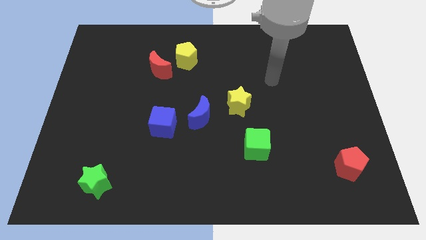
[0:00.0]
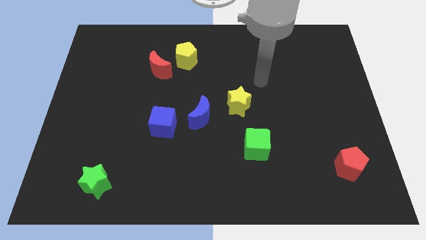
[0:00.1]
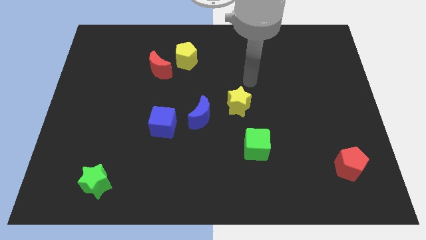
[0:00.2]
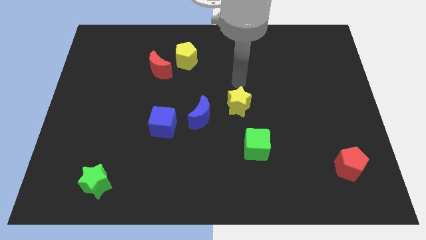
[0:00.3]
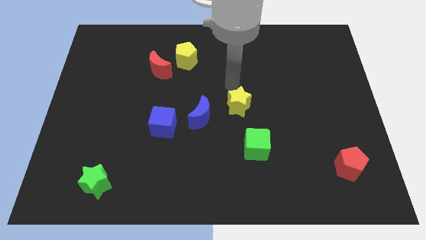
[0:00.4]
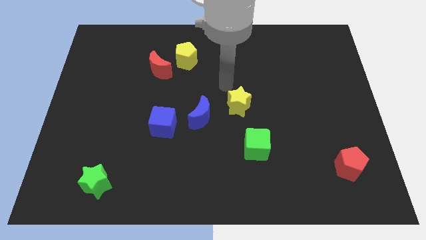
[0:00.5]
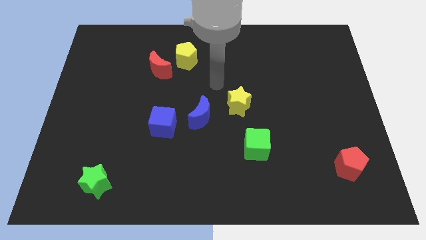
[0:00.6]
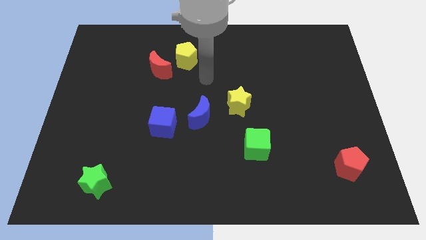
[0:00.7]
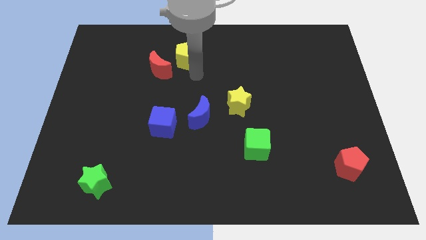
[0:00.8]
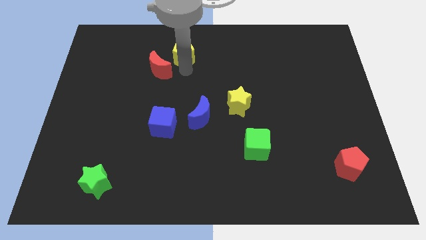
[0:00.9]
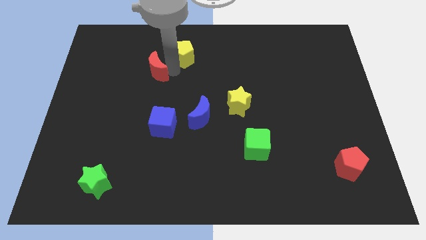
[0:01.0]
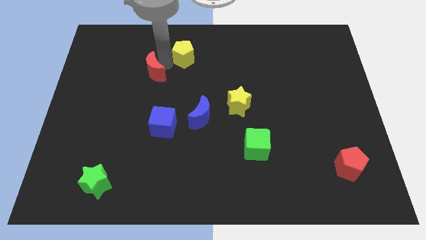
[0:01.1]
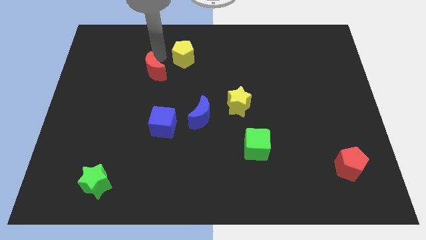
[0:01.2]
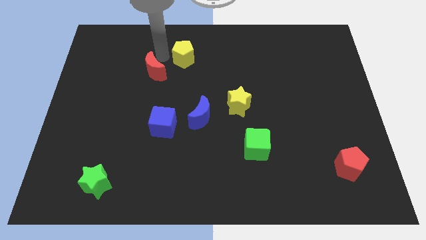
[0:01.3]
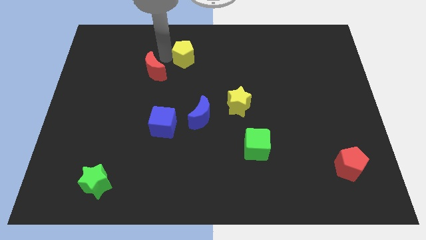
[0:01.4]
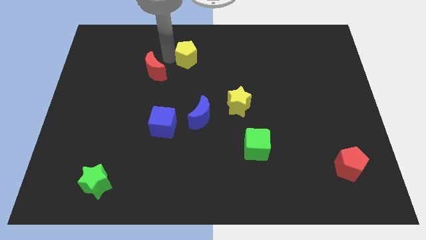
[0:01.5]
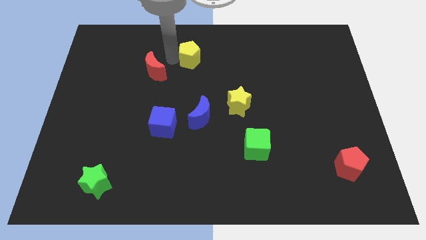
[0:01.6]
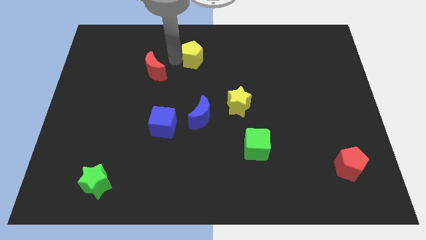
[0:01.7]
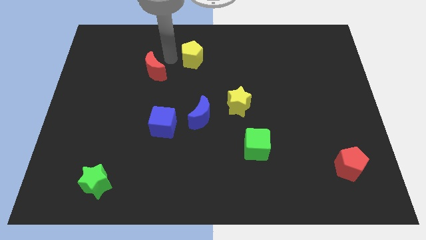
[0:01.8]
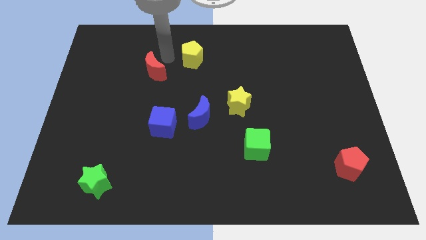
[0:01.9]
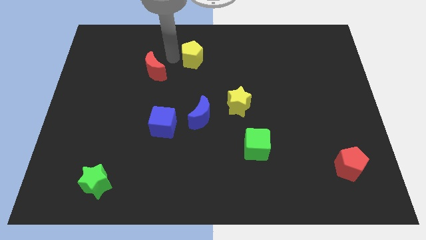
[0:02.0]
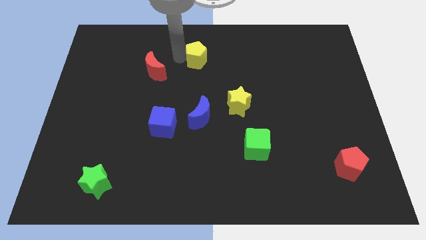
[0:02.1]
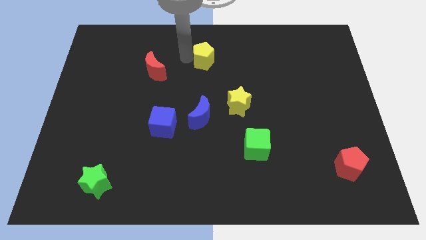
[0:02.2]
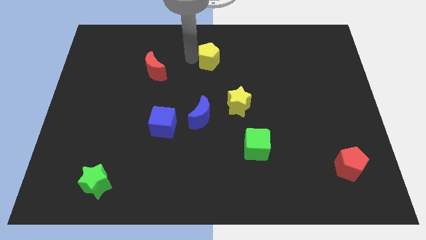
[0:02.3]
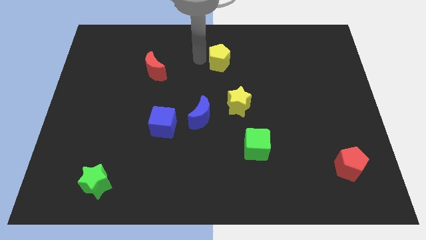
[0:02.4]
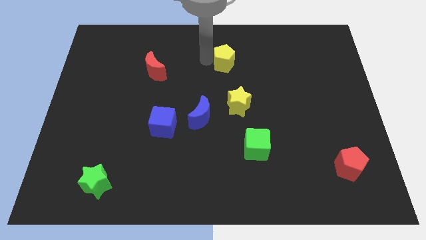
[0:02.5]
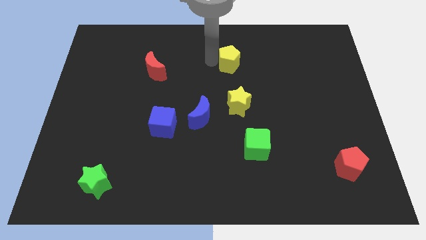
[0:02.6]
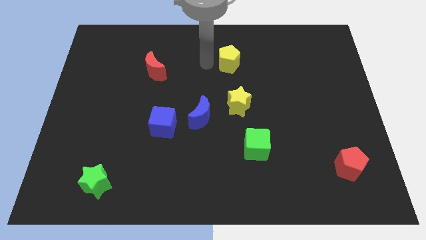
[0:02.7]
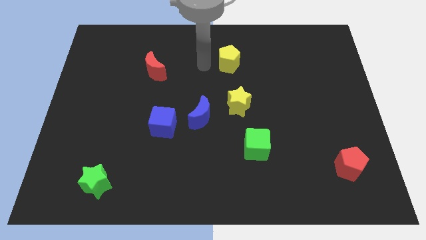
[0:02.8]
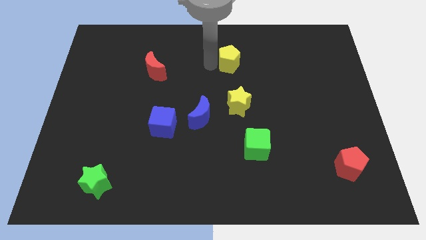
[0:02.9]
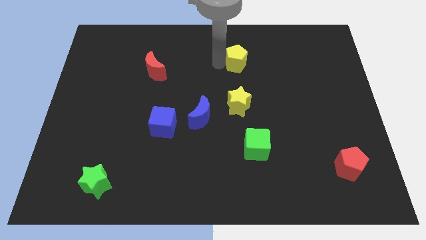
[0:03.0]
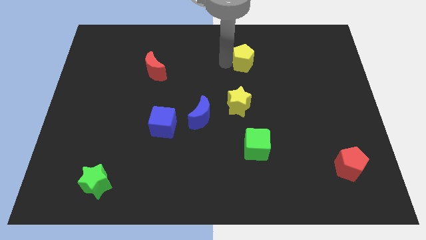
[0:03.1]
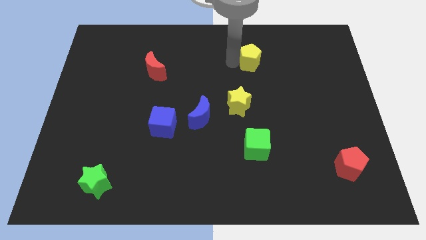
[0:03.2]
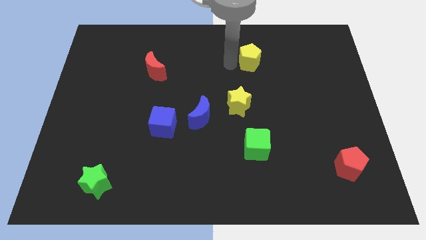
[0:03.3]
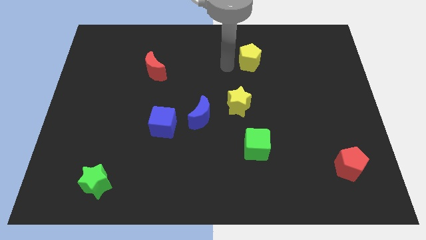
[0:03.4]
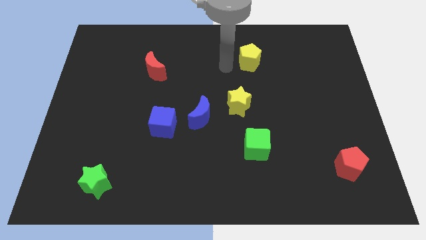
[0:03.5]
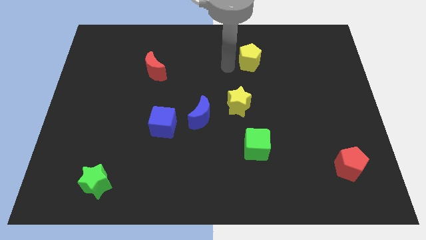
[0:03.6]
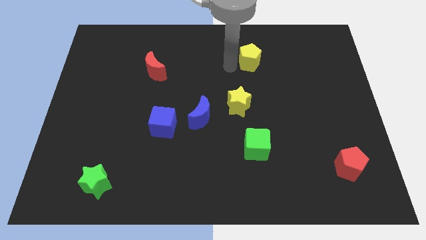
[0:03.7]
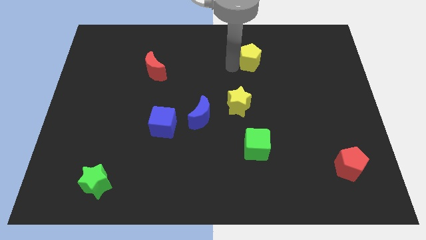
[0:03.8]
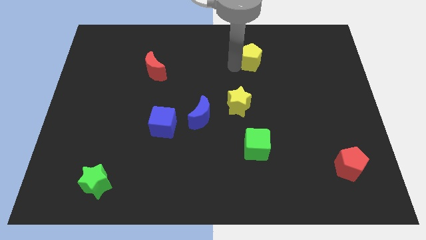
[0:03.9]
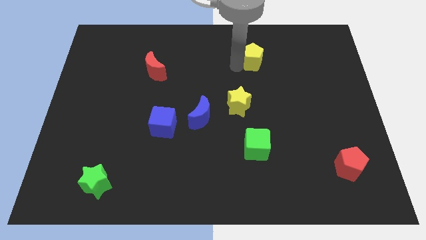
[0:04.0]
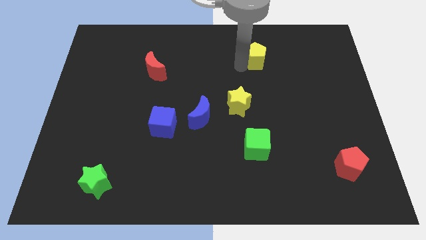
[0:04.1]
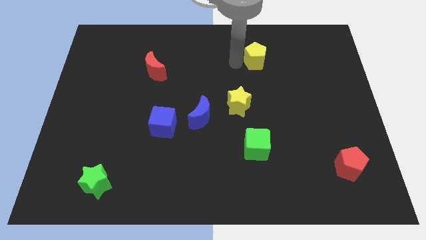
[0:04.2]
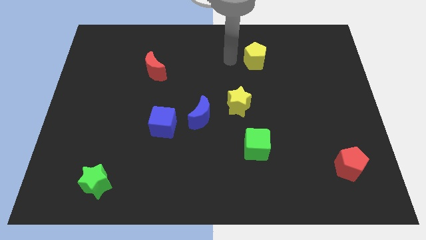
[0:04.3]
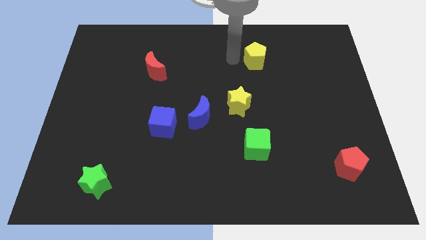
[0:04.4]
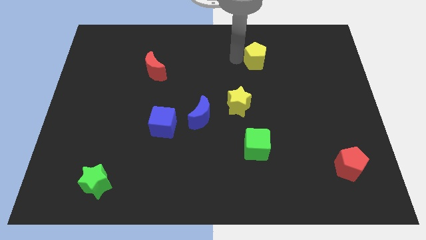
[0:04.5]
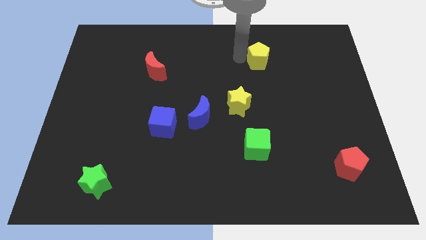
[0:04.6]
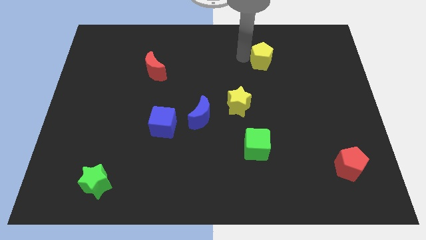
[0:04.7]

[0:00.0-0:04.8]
slide the yellow pentagon right

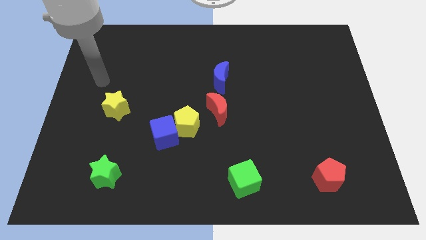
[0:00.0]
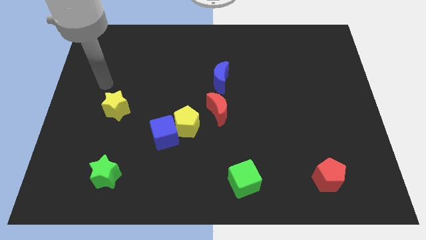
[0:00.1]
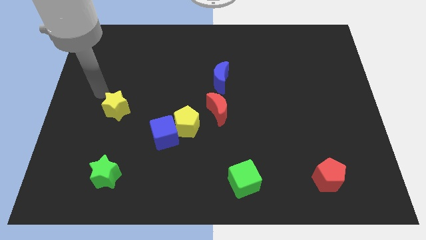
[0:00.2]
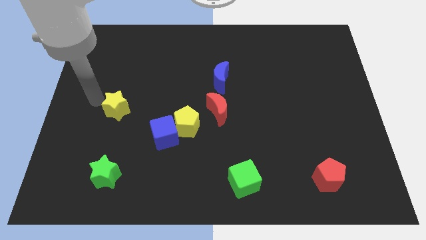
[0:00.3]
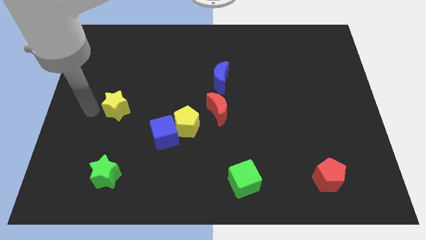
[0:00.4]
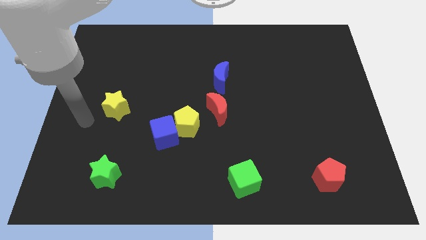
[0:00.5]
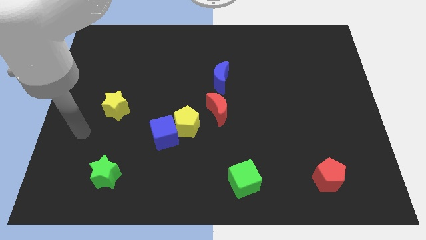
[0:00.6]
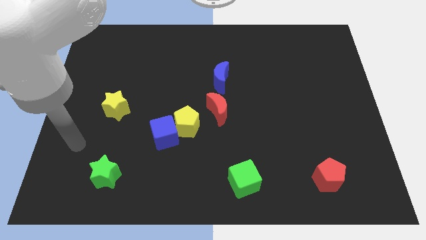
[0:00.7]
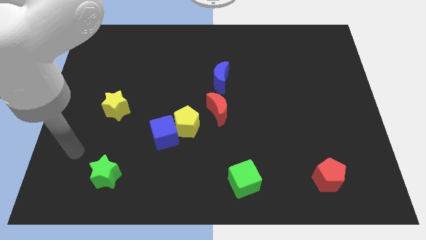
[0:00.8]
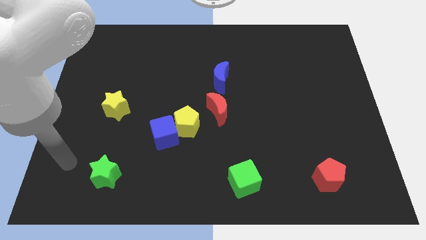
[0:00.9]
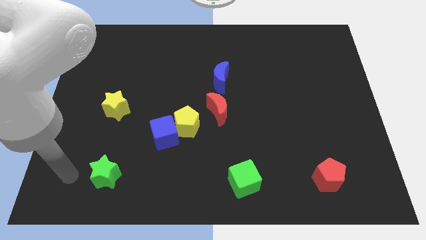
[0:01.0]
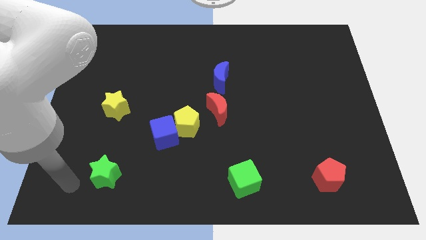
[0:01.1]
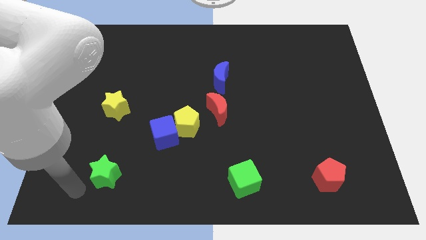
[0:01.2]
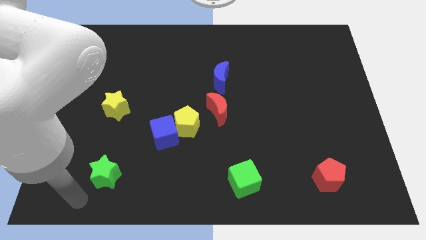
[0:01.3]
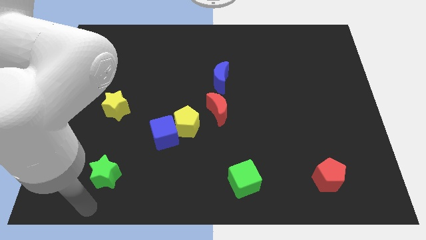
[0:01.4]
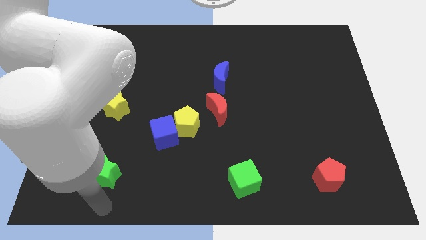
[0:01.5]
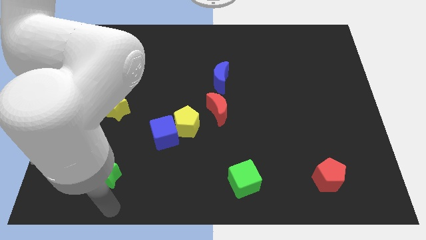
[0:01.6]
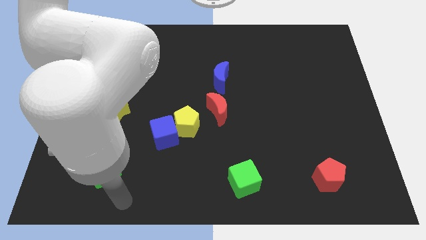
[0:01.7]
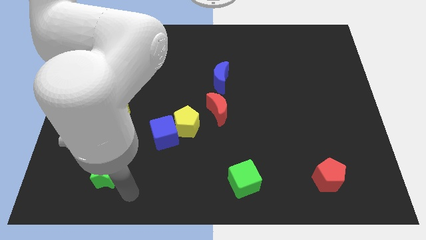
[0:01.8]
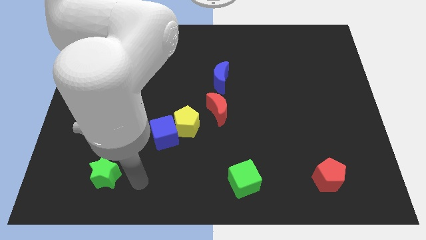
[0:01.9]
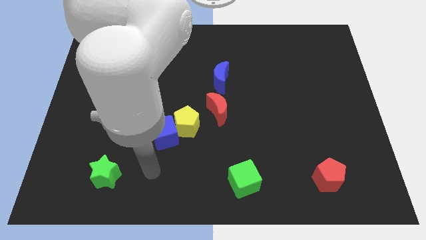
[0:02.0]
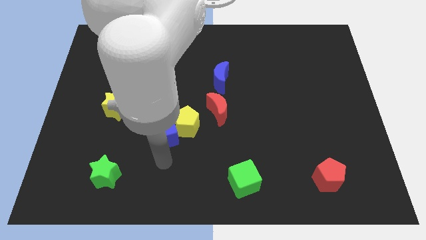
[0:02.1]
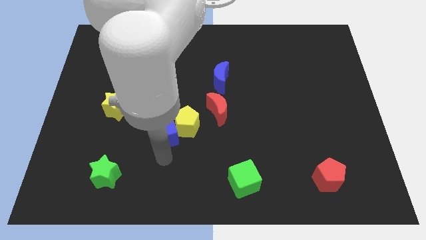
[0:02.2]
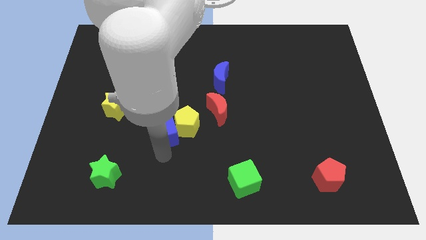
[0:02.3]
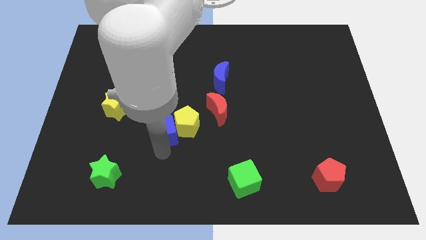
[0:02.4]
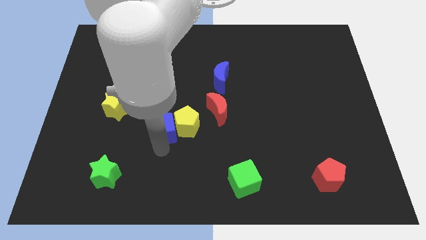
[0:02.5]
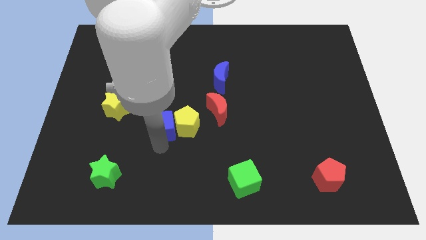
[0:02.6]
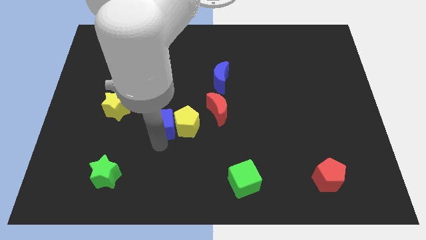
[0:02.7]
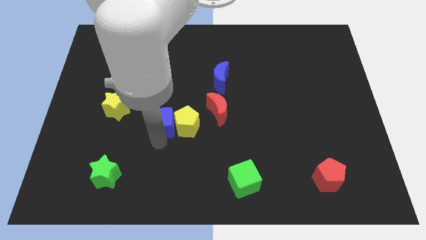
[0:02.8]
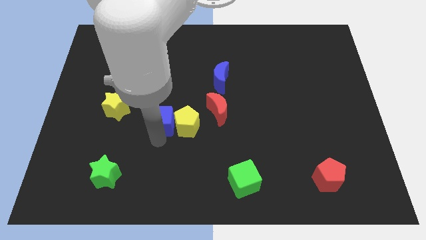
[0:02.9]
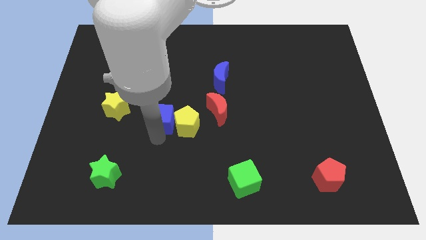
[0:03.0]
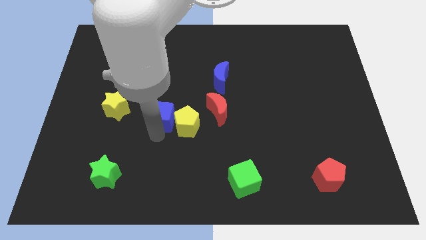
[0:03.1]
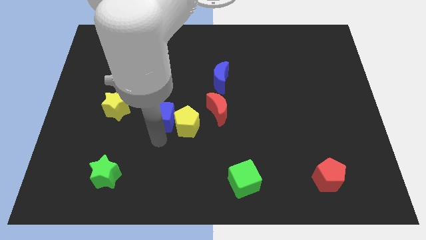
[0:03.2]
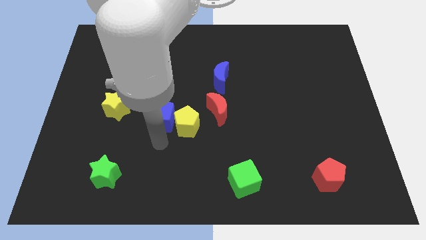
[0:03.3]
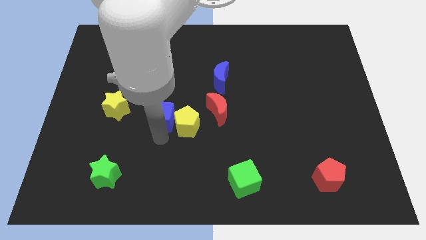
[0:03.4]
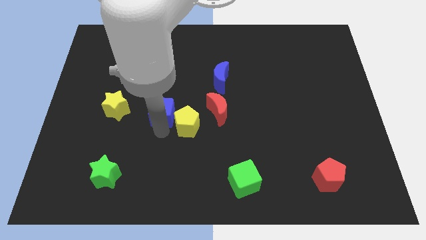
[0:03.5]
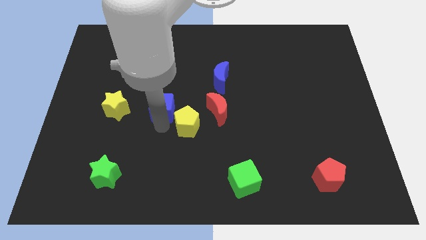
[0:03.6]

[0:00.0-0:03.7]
slightly move the blue cube upwards
